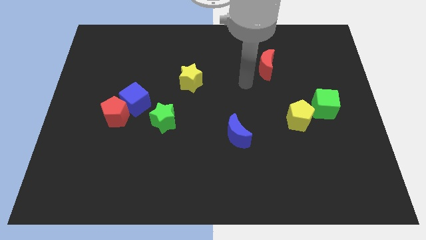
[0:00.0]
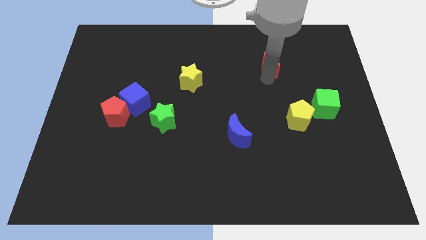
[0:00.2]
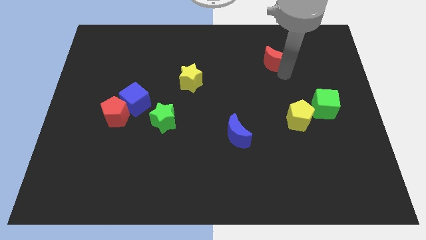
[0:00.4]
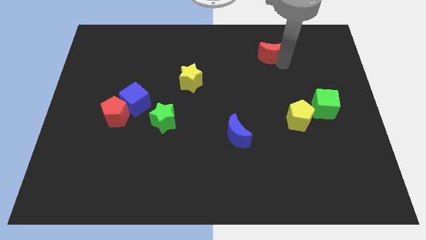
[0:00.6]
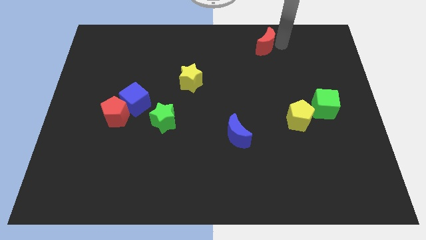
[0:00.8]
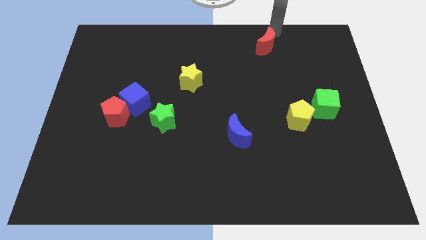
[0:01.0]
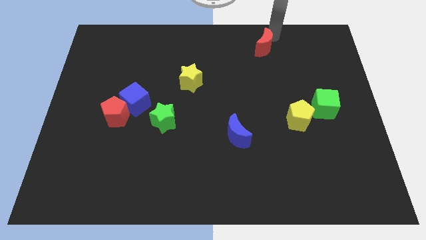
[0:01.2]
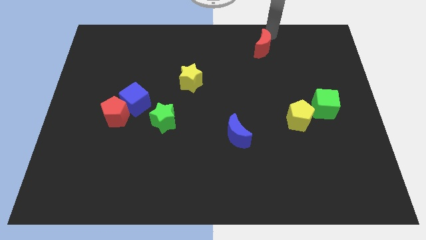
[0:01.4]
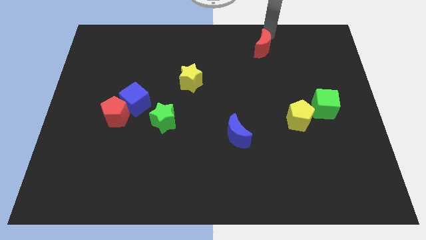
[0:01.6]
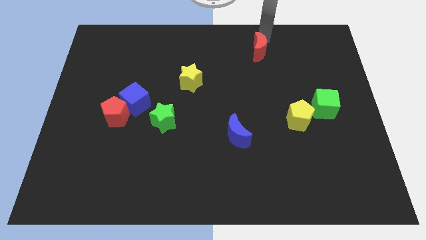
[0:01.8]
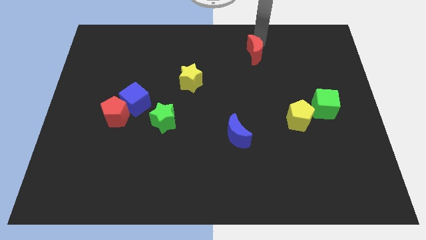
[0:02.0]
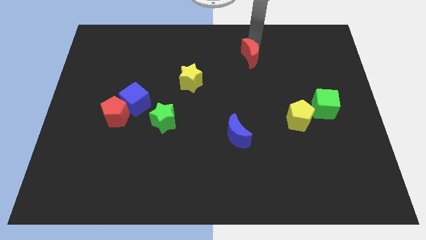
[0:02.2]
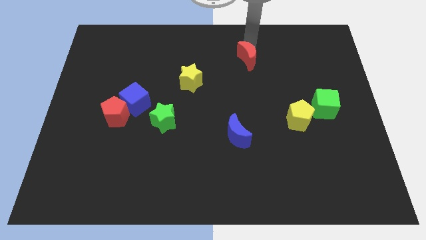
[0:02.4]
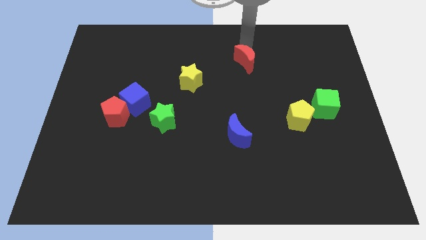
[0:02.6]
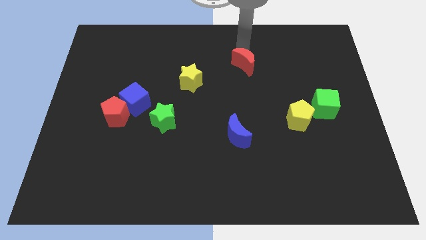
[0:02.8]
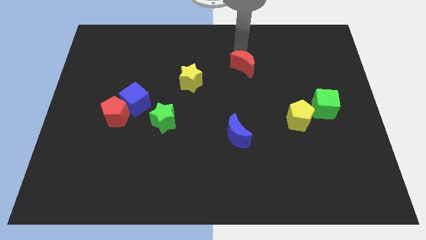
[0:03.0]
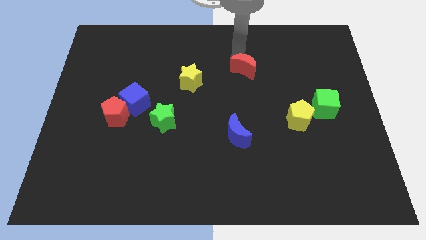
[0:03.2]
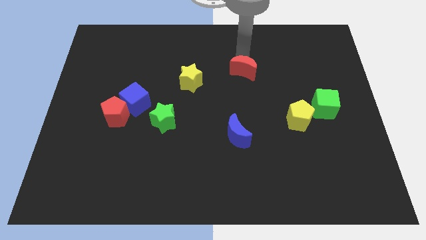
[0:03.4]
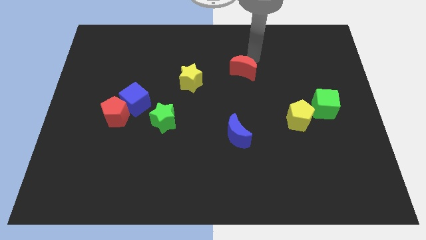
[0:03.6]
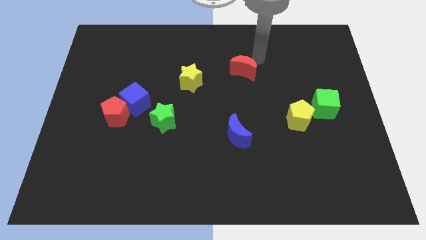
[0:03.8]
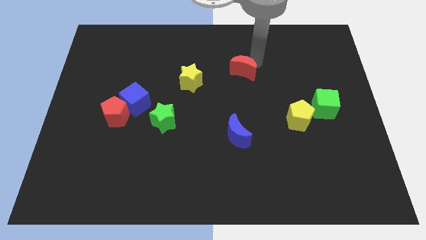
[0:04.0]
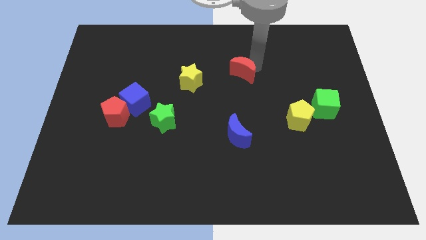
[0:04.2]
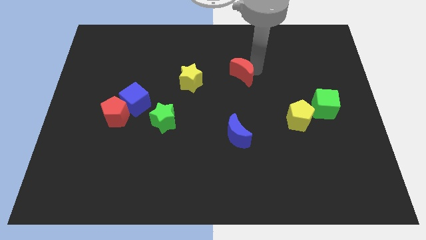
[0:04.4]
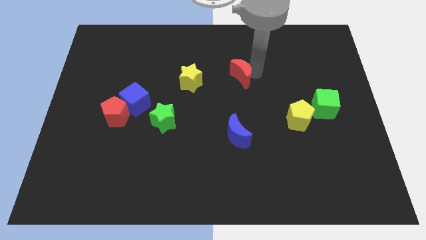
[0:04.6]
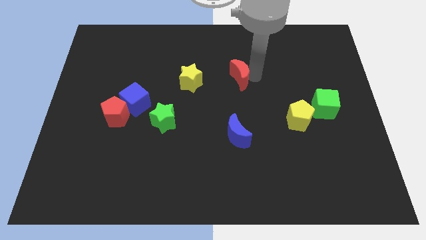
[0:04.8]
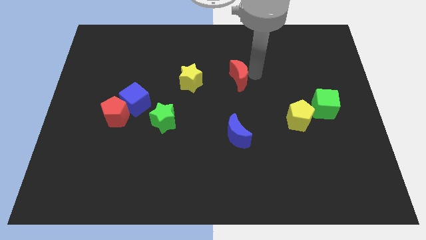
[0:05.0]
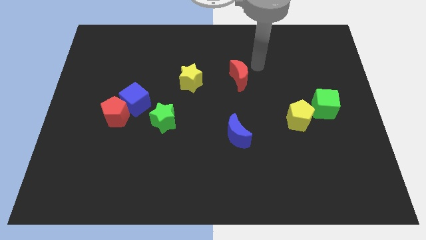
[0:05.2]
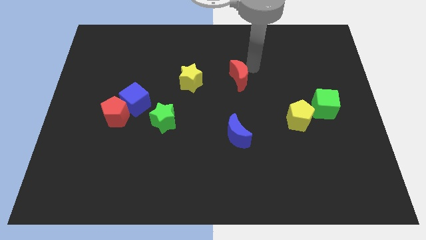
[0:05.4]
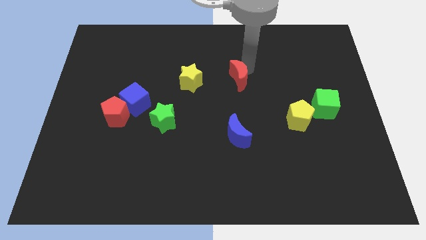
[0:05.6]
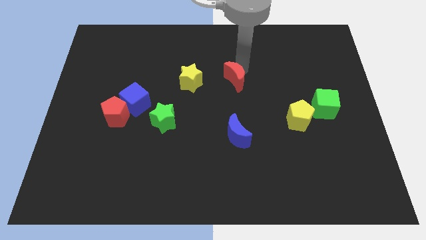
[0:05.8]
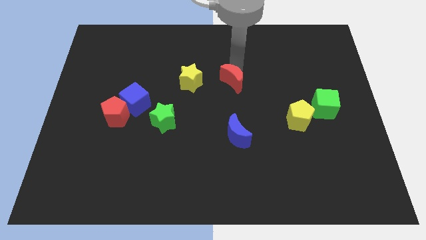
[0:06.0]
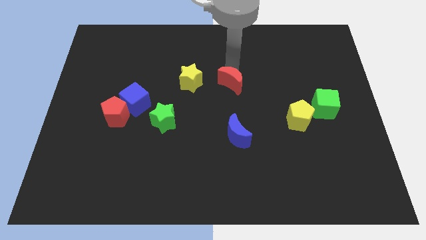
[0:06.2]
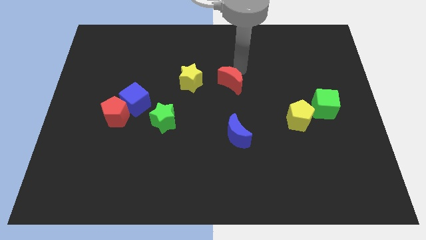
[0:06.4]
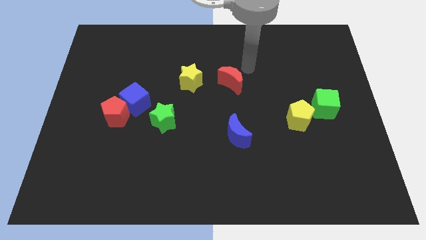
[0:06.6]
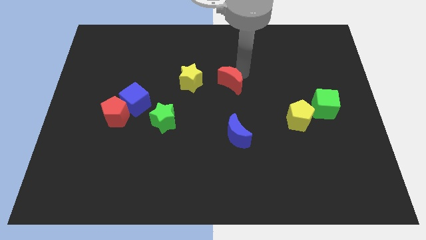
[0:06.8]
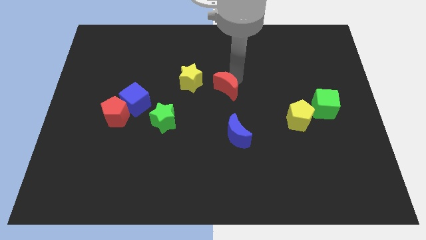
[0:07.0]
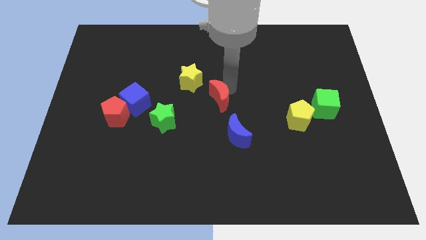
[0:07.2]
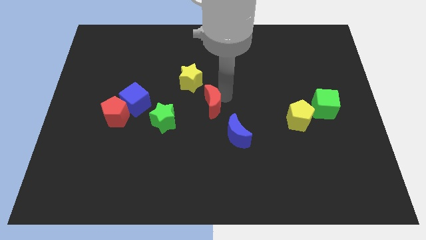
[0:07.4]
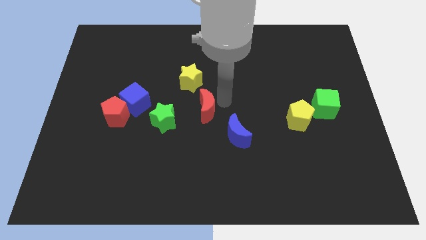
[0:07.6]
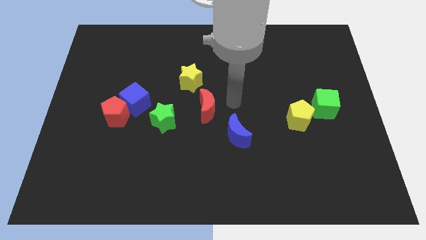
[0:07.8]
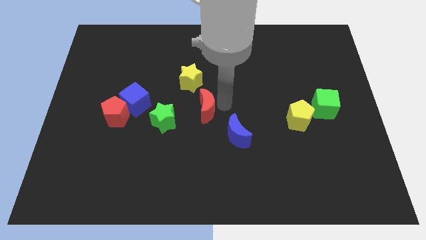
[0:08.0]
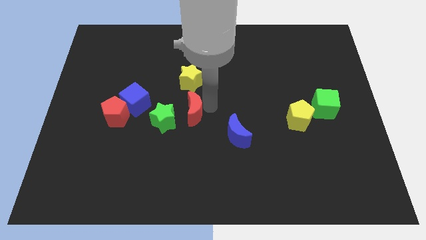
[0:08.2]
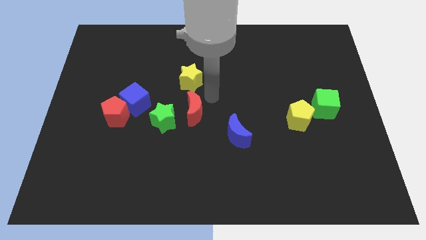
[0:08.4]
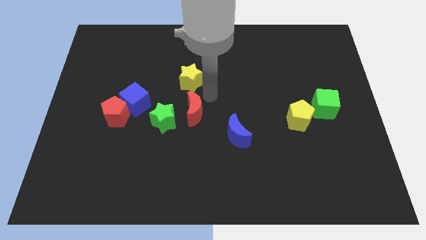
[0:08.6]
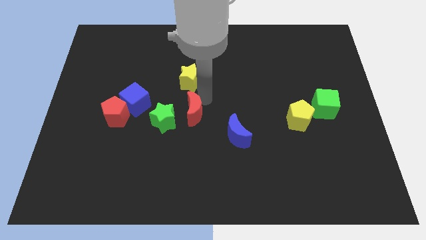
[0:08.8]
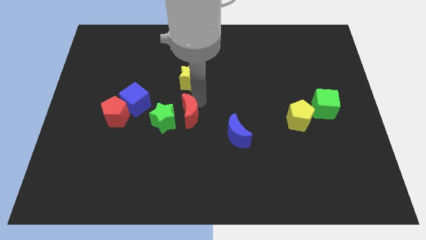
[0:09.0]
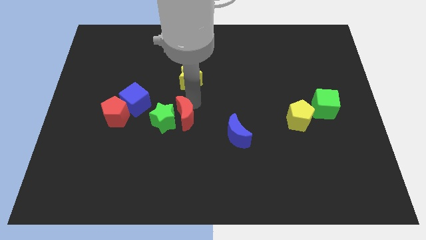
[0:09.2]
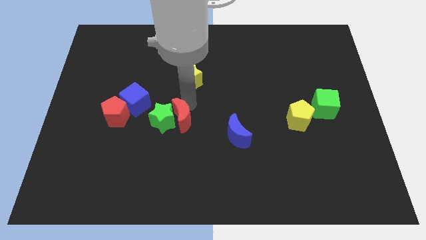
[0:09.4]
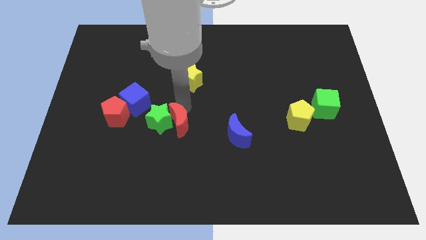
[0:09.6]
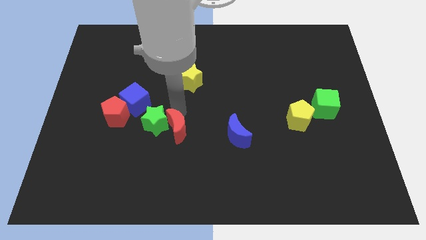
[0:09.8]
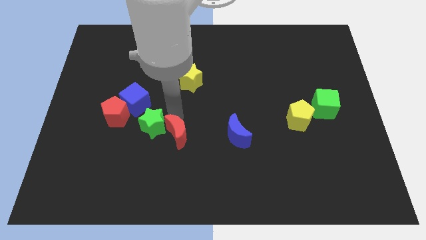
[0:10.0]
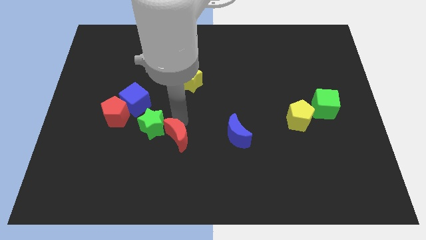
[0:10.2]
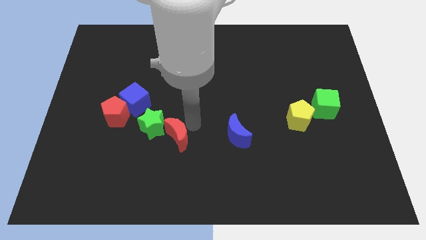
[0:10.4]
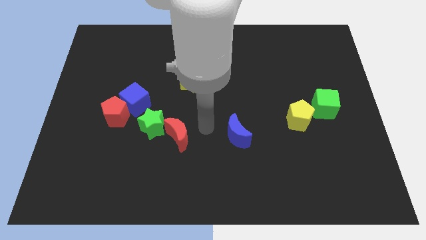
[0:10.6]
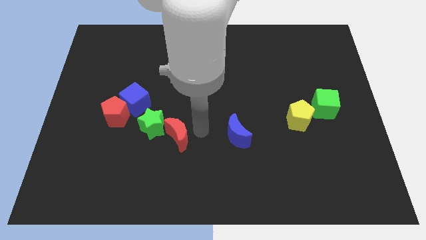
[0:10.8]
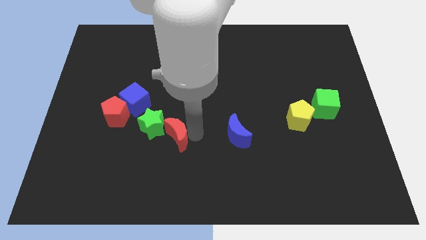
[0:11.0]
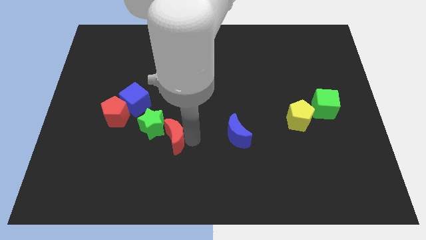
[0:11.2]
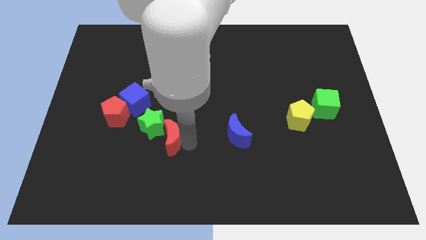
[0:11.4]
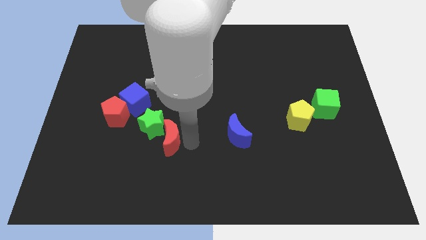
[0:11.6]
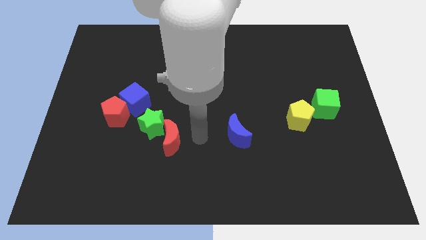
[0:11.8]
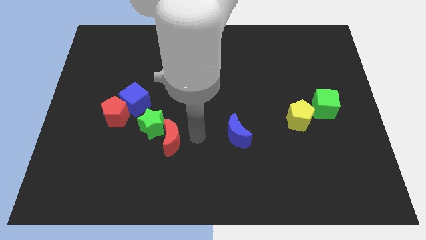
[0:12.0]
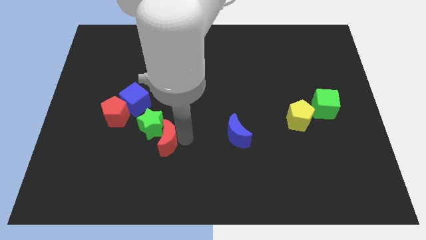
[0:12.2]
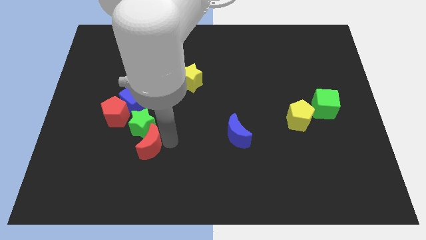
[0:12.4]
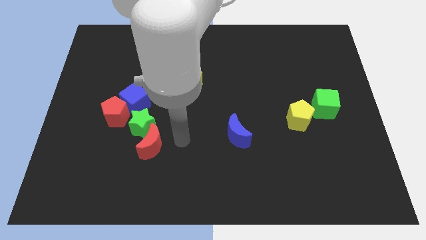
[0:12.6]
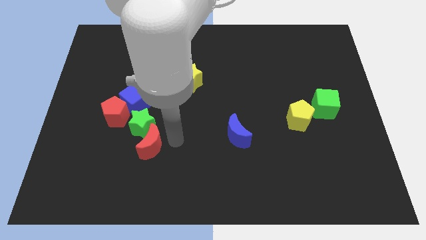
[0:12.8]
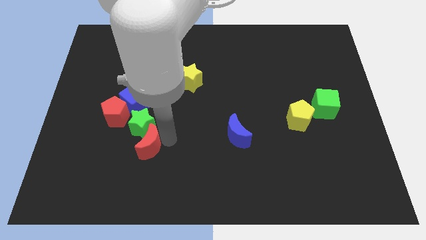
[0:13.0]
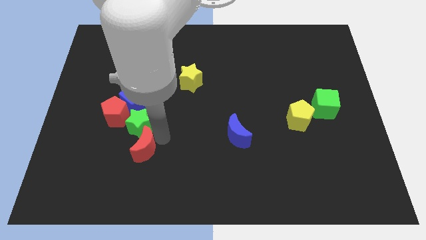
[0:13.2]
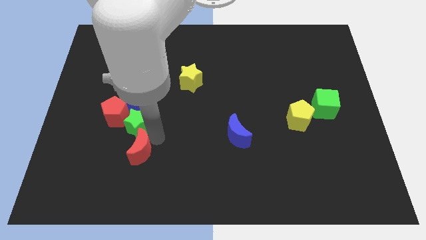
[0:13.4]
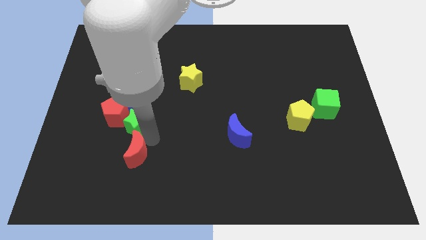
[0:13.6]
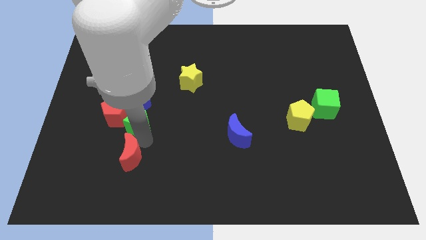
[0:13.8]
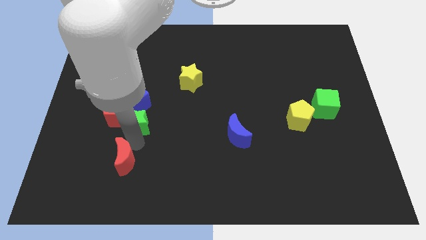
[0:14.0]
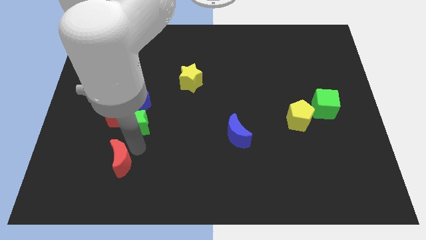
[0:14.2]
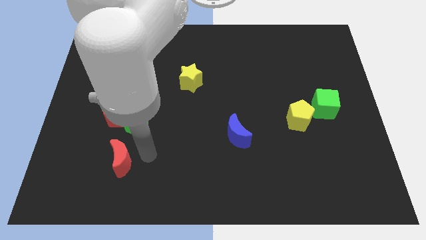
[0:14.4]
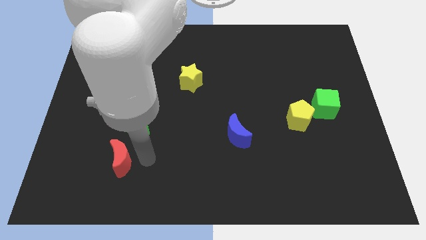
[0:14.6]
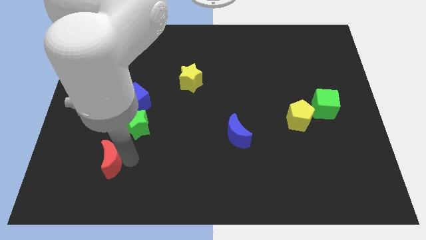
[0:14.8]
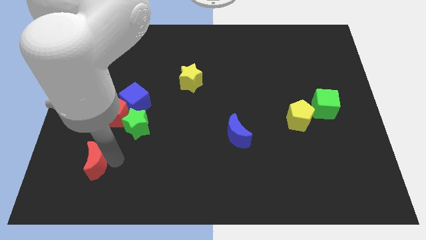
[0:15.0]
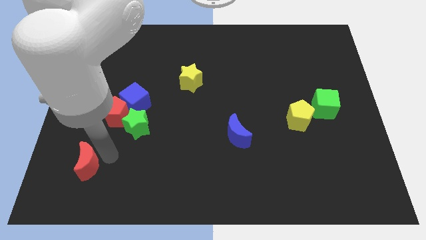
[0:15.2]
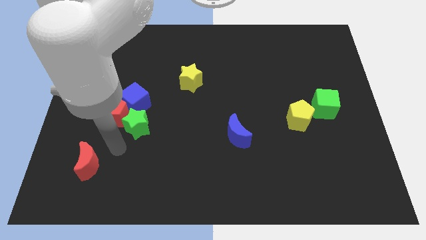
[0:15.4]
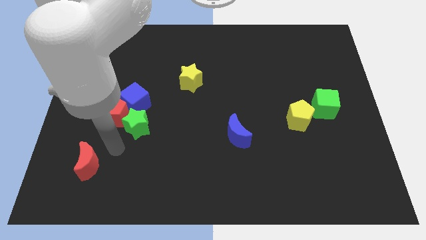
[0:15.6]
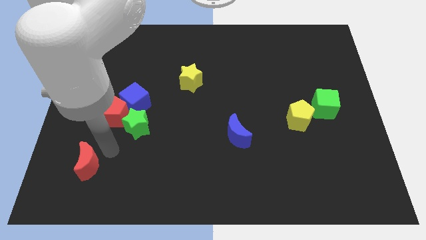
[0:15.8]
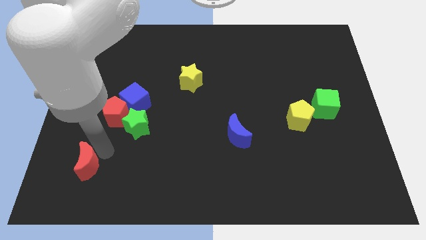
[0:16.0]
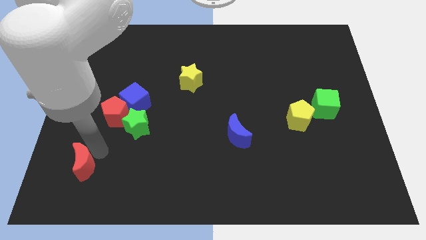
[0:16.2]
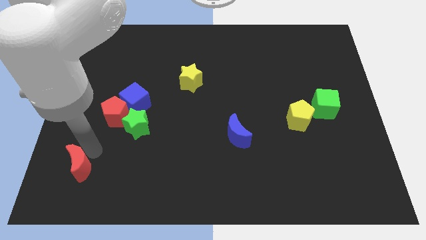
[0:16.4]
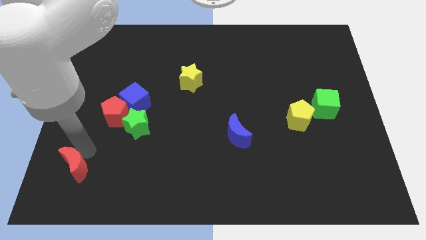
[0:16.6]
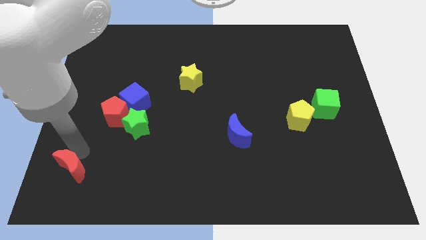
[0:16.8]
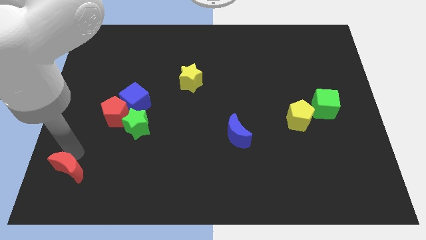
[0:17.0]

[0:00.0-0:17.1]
push the red moon to the bottom left of the board
